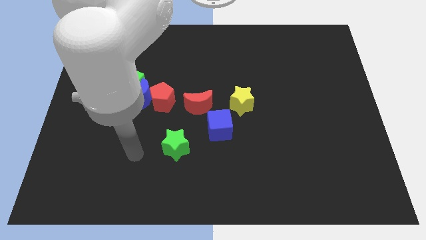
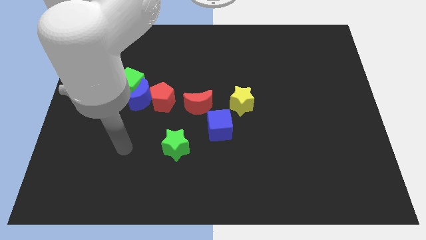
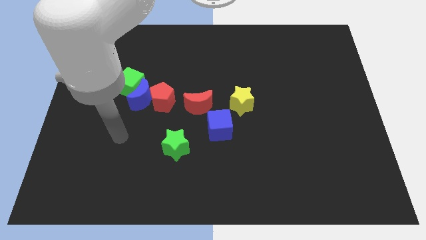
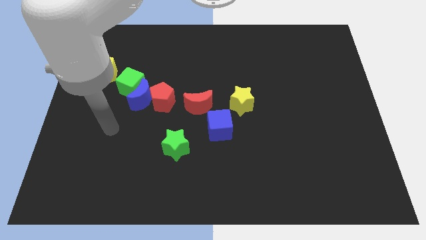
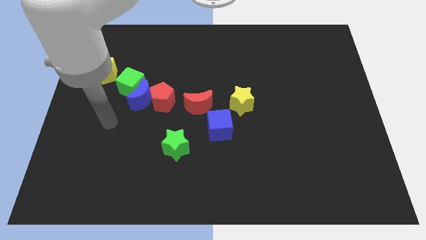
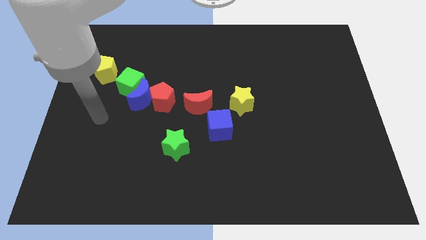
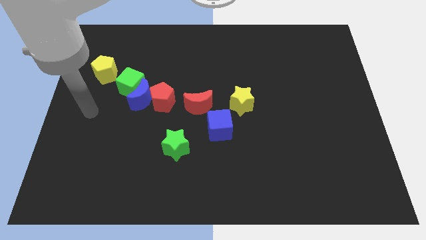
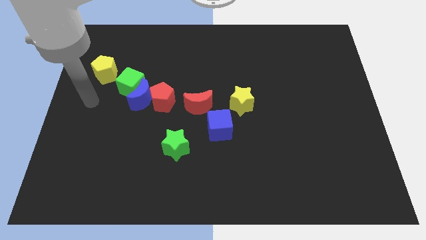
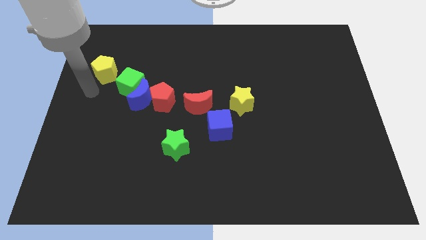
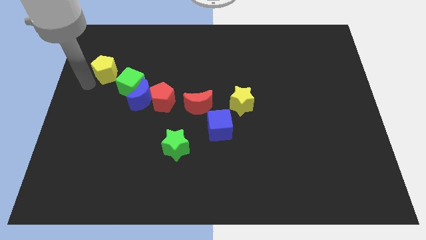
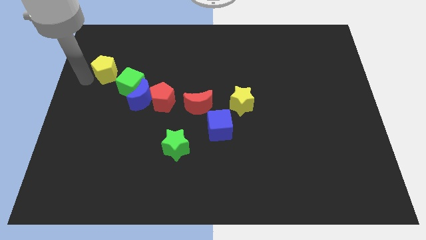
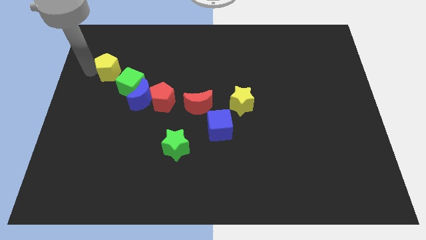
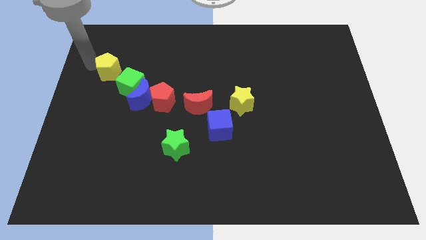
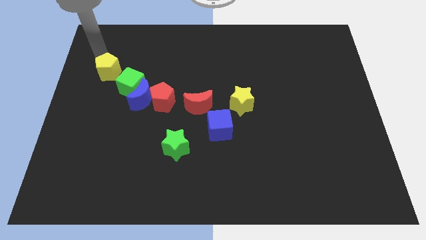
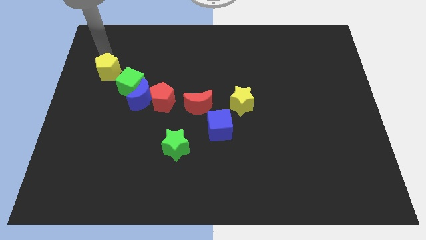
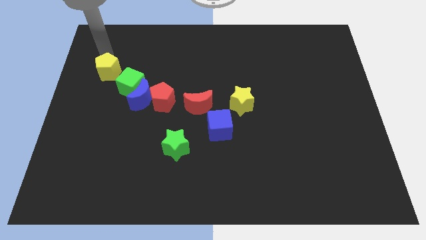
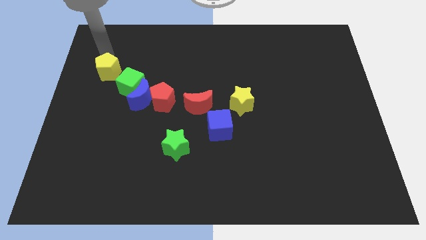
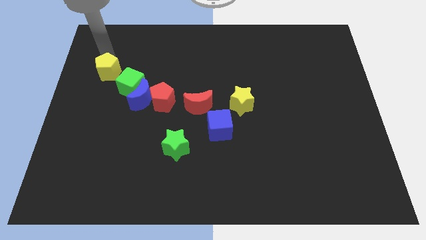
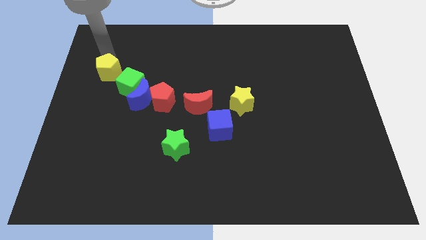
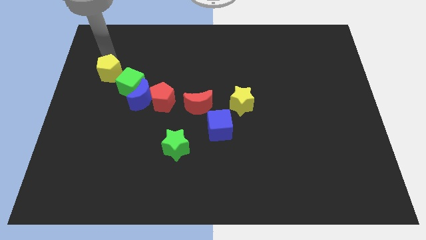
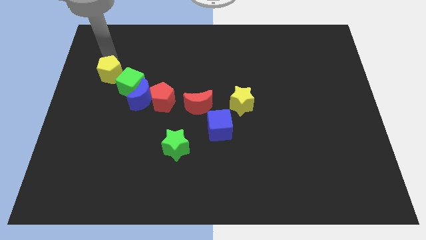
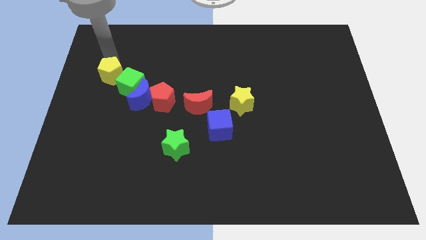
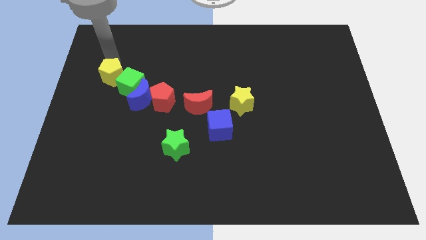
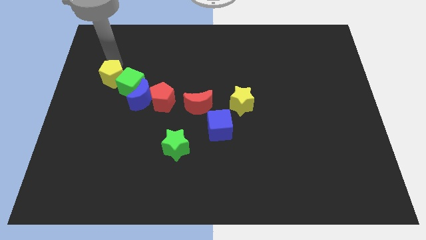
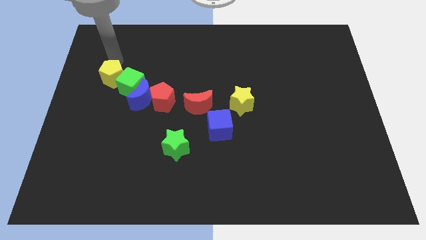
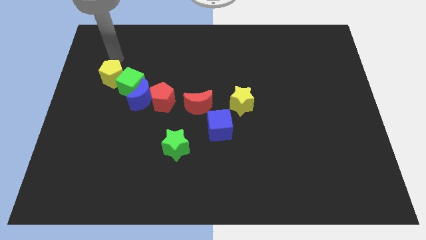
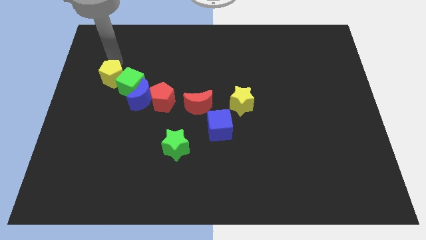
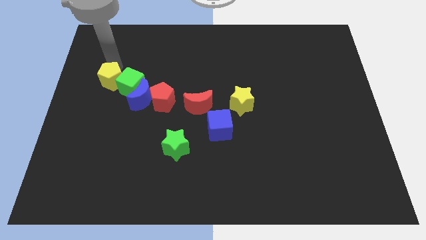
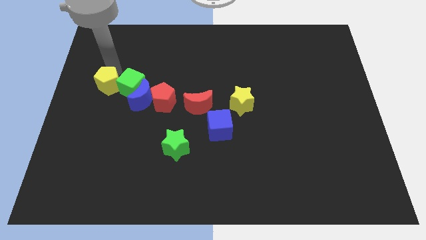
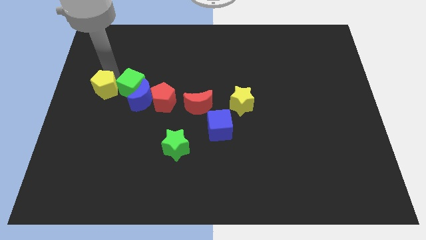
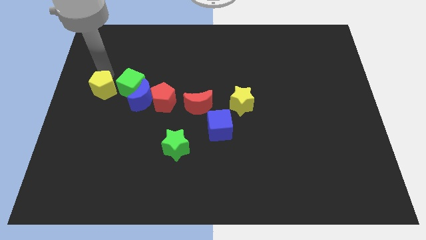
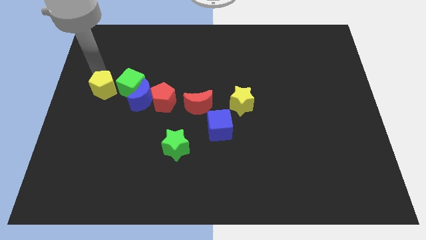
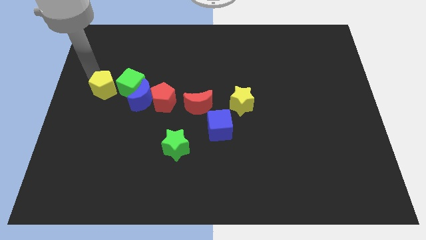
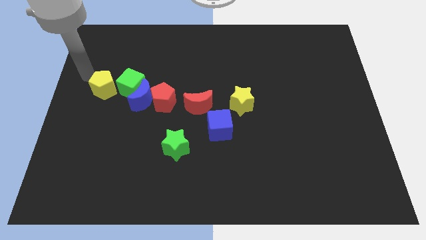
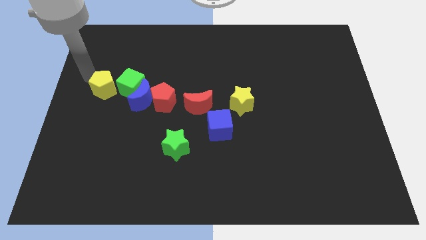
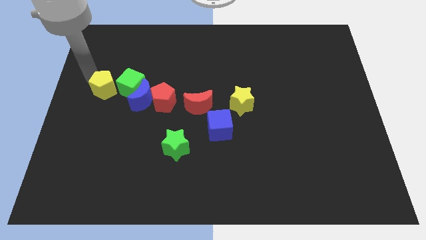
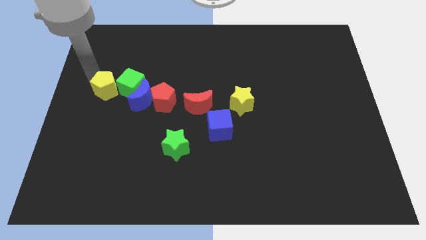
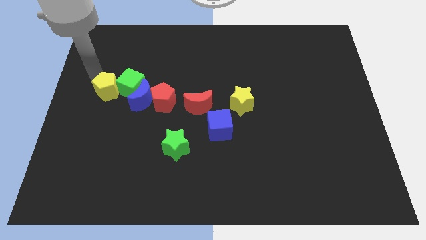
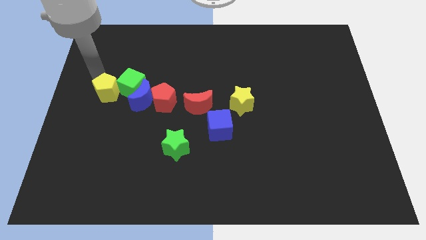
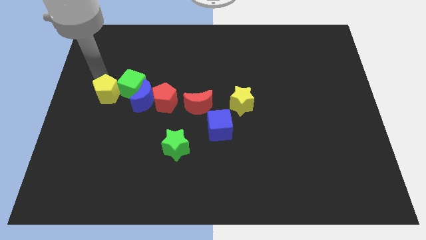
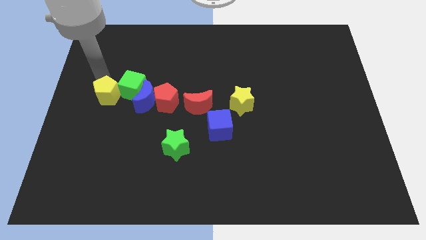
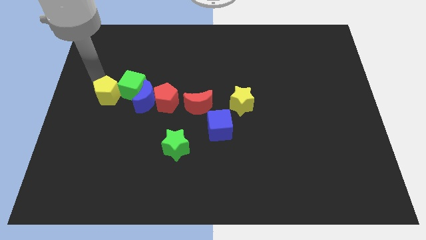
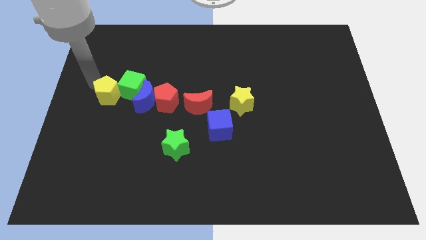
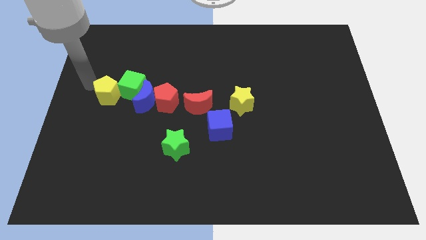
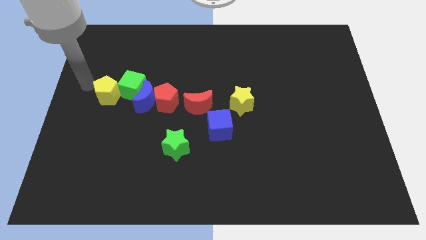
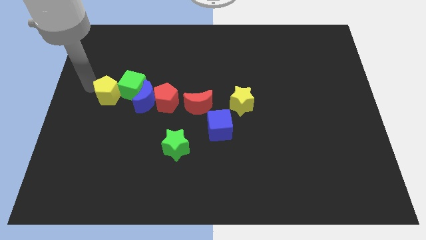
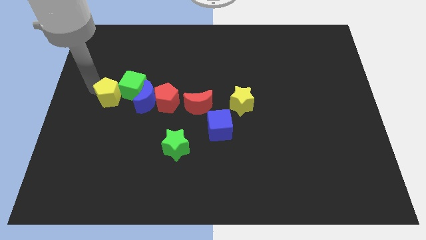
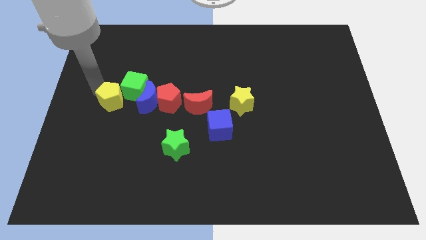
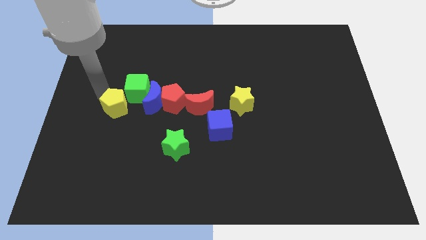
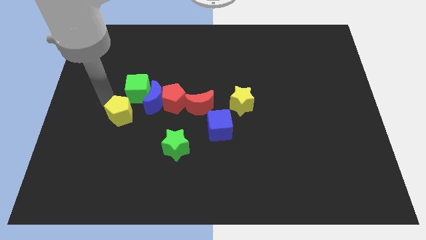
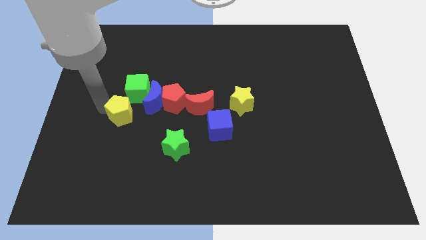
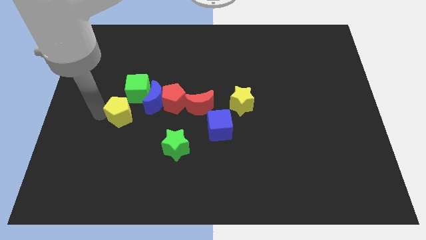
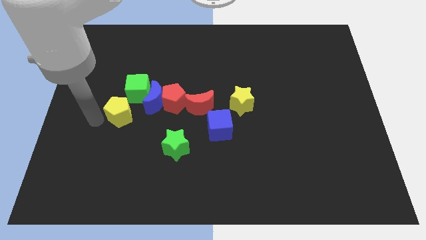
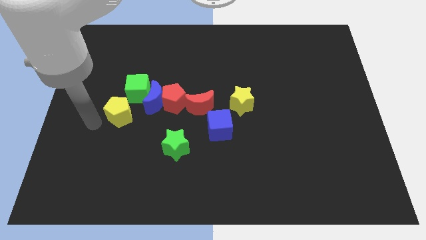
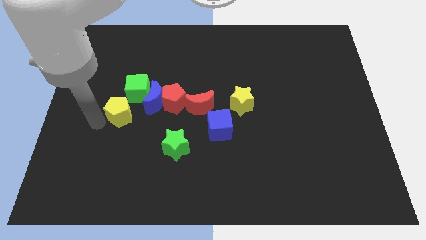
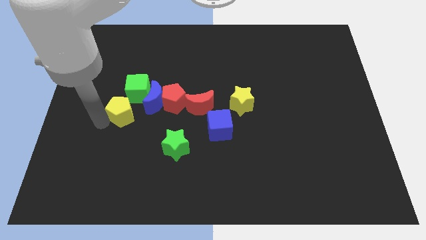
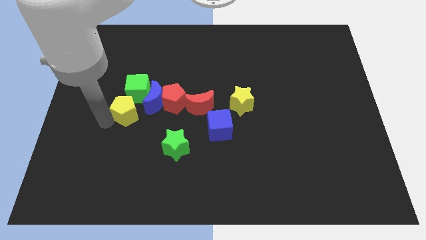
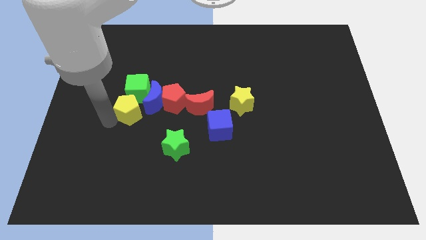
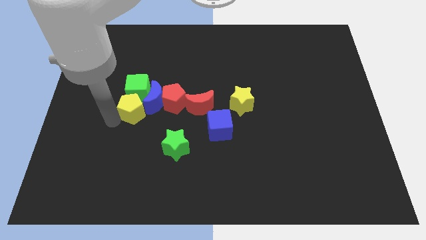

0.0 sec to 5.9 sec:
slide the yellow pentagon next to the blue moon

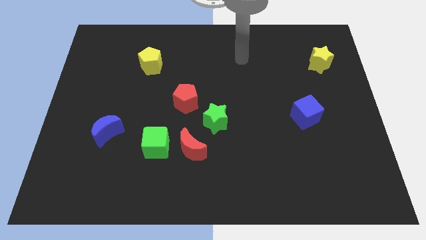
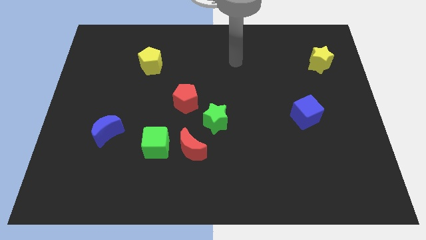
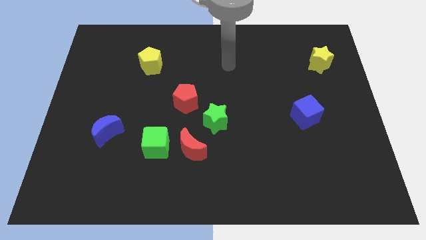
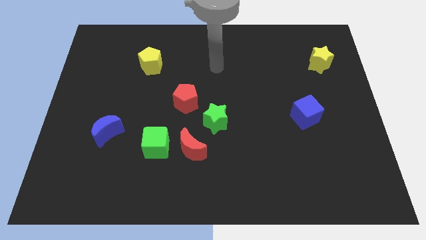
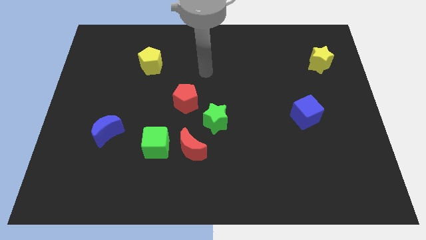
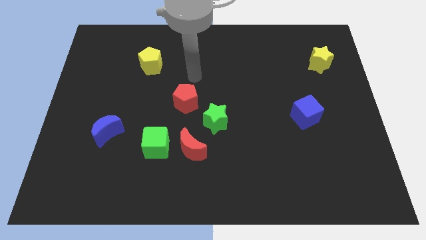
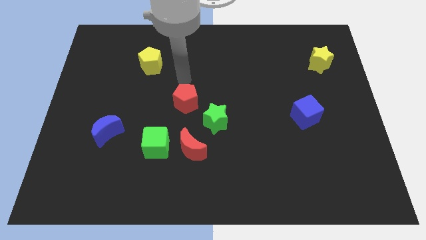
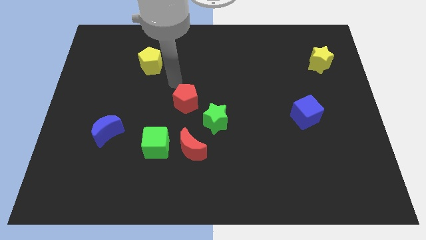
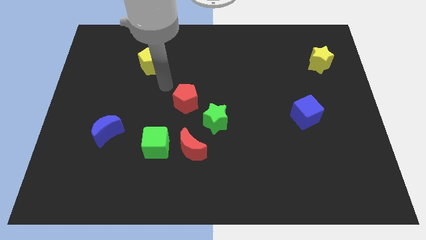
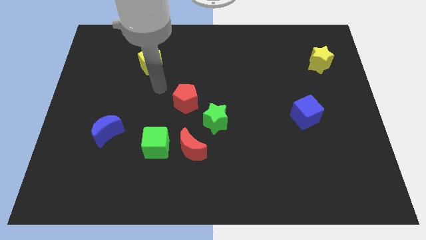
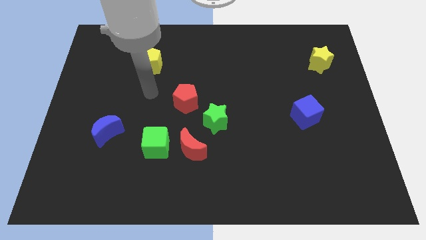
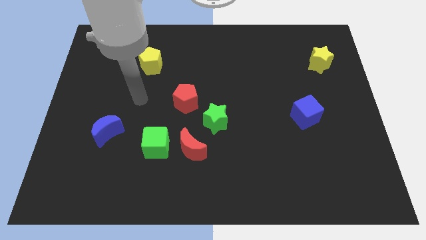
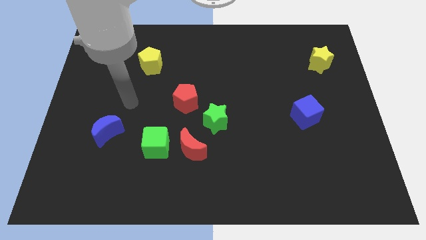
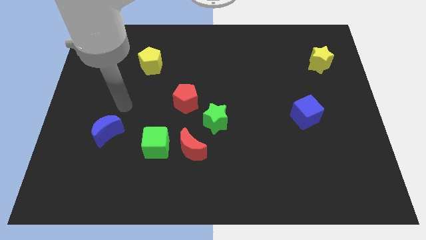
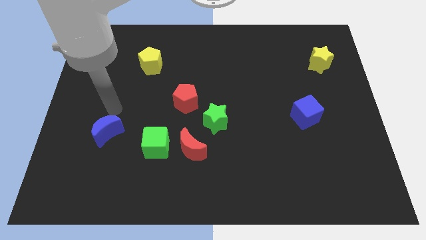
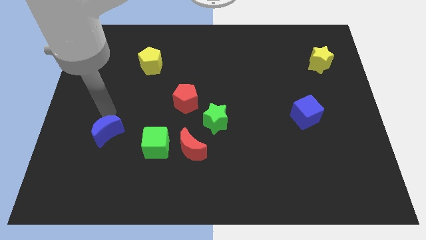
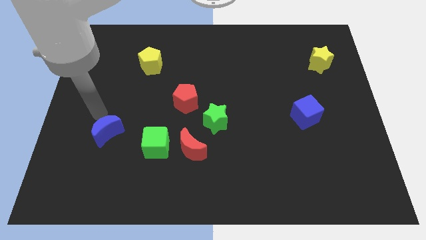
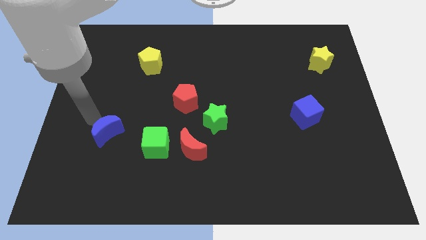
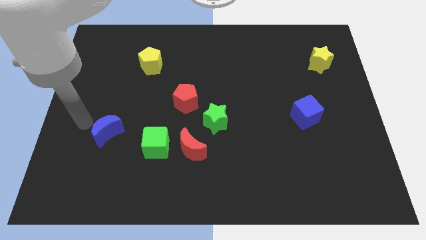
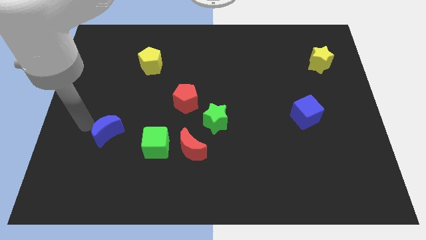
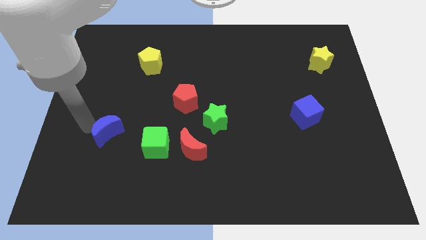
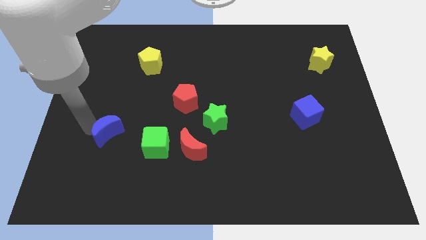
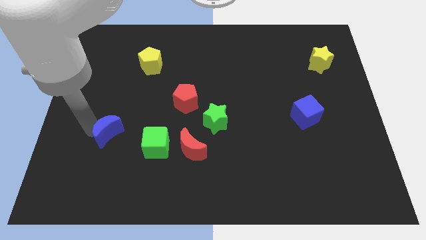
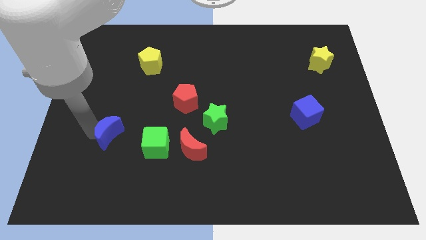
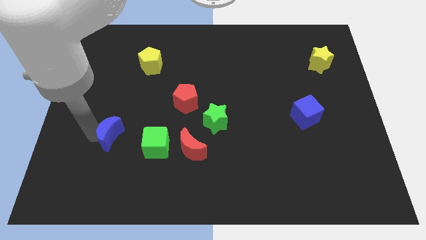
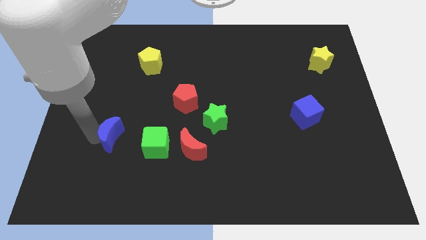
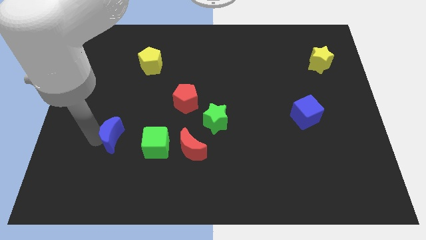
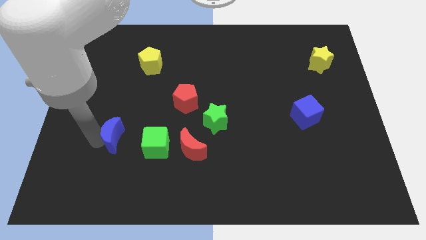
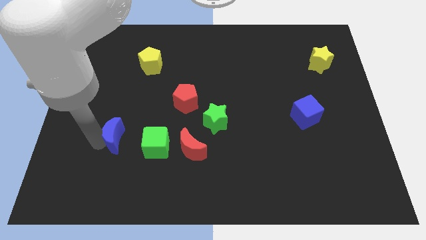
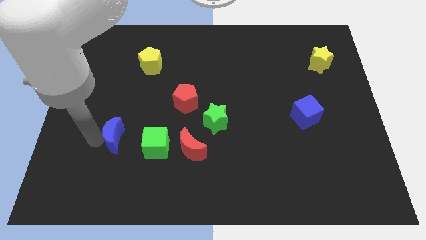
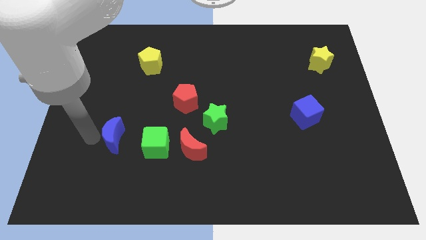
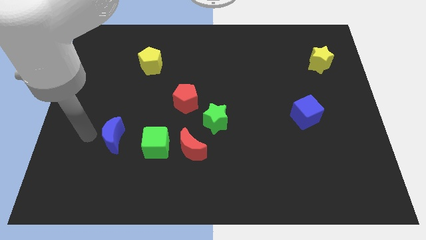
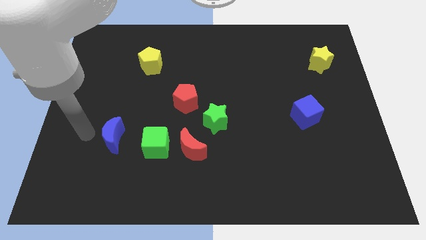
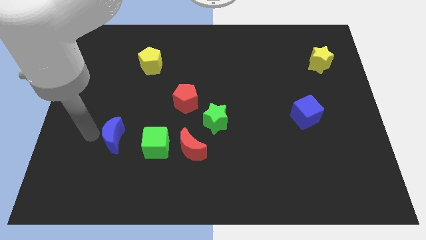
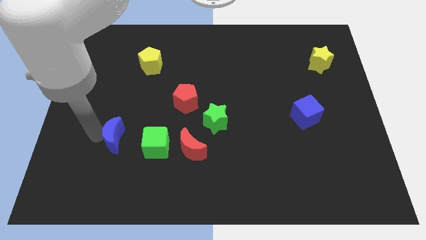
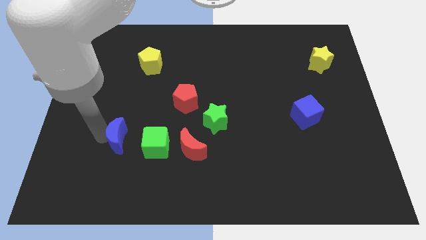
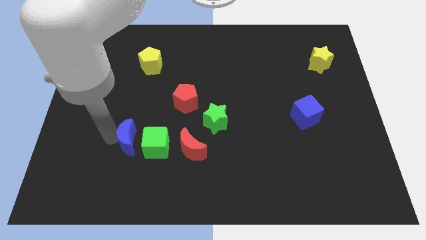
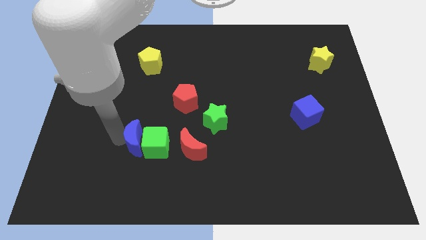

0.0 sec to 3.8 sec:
slide the blue moon close to the green cube
